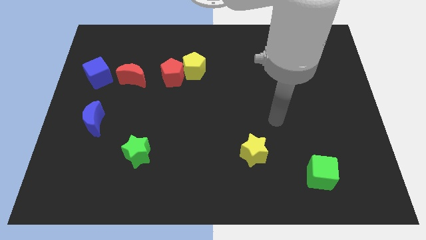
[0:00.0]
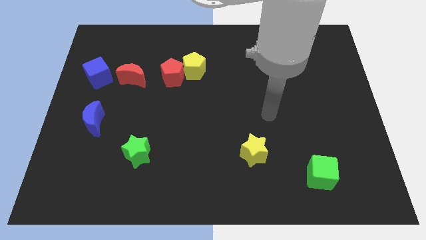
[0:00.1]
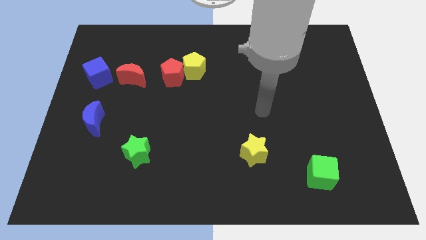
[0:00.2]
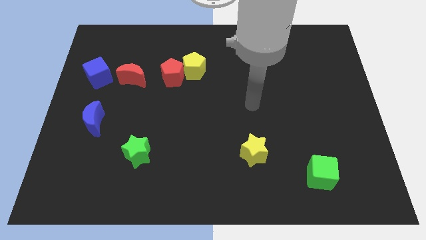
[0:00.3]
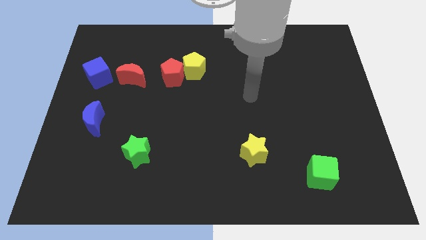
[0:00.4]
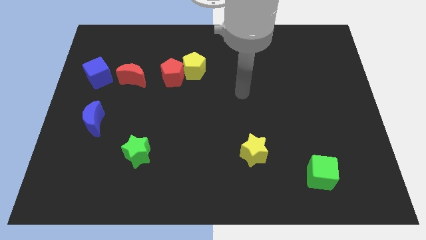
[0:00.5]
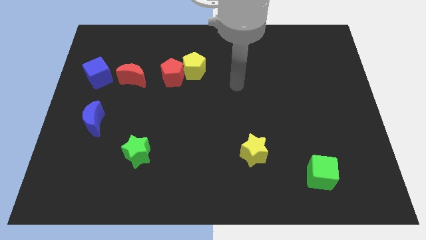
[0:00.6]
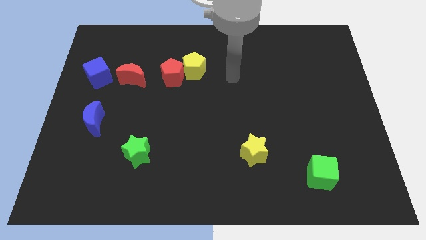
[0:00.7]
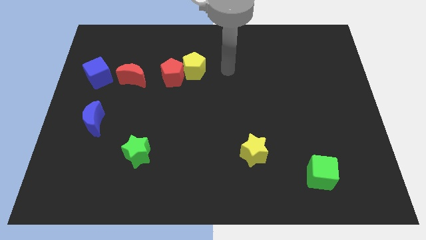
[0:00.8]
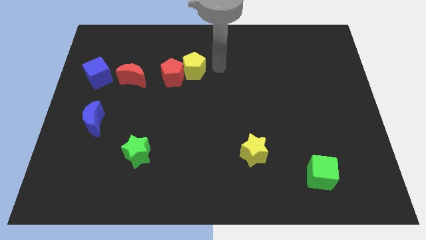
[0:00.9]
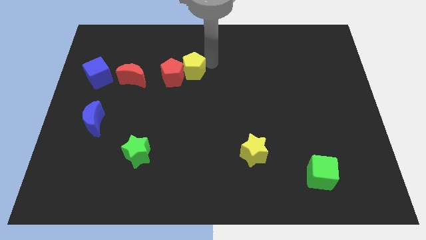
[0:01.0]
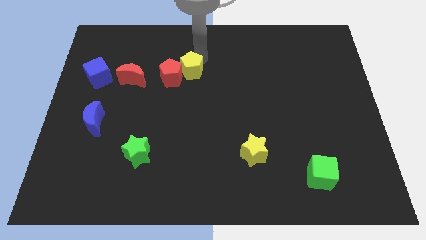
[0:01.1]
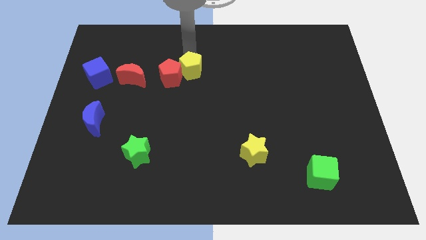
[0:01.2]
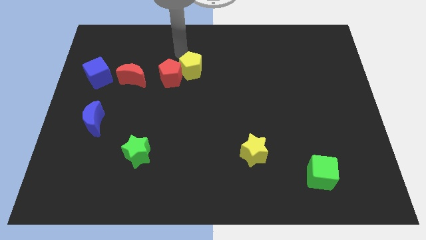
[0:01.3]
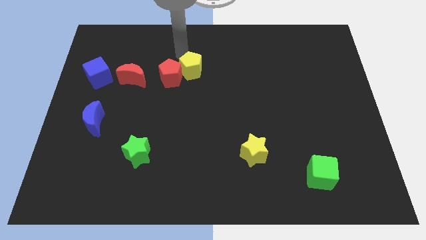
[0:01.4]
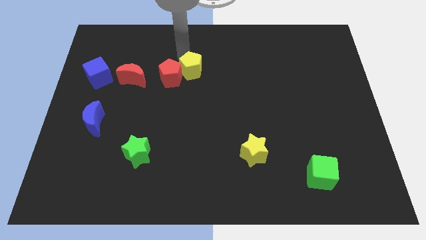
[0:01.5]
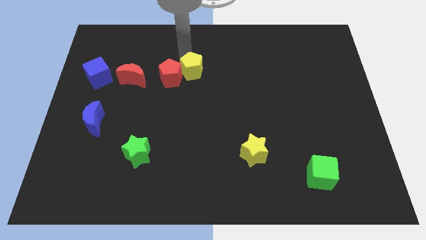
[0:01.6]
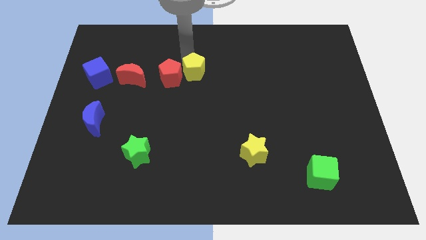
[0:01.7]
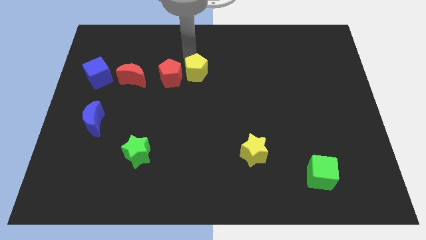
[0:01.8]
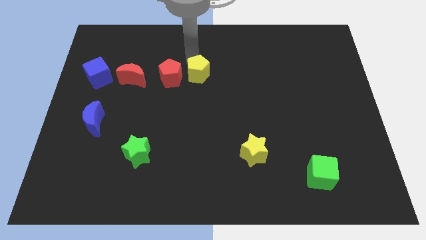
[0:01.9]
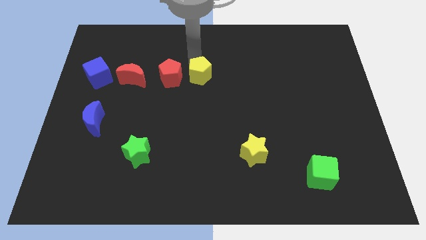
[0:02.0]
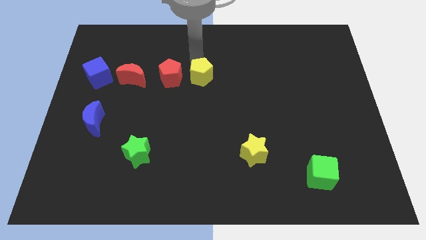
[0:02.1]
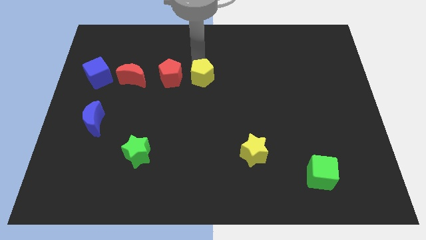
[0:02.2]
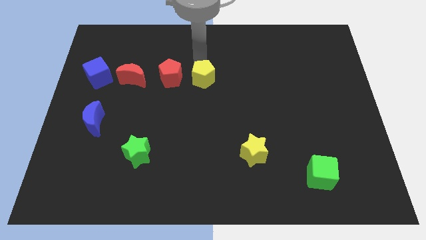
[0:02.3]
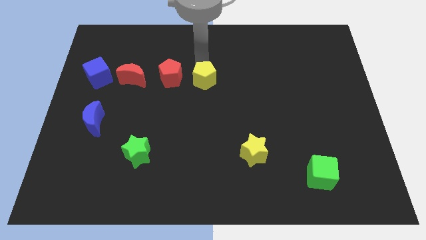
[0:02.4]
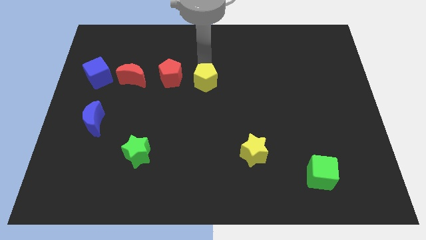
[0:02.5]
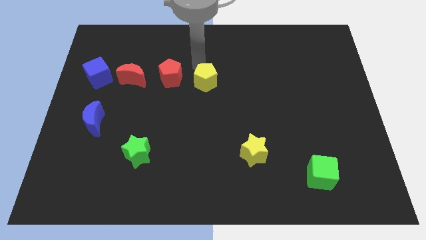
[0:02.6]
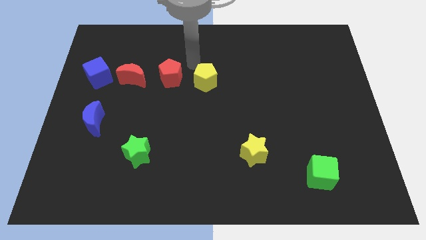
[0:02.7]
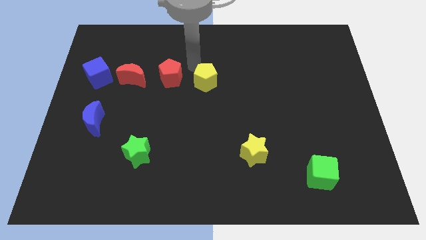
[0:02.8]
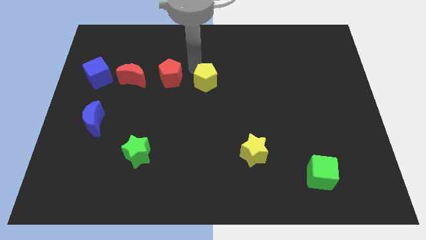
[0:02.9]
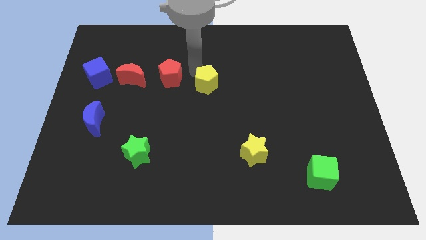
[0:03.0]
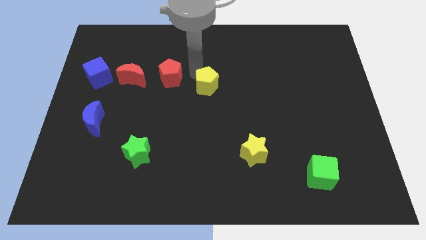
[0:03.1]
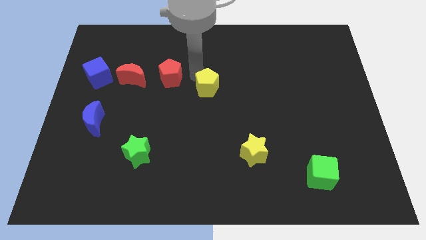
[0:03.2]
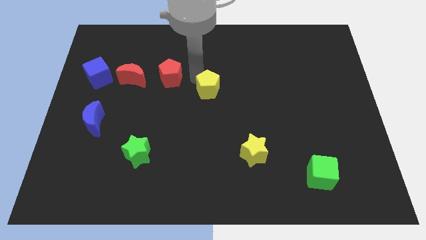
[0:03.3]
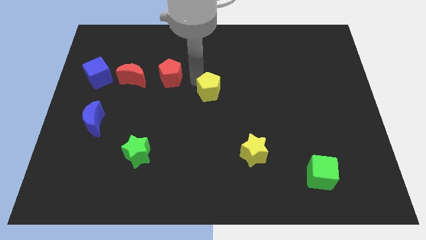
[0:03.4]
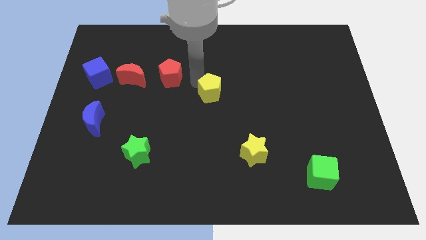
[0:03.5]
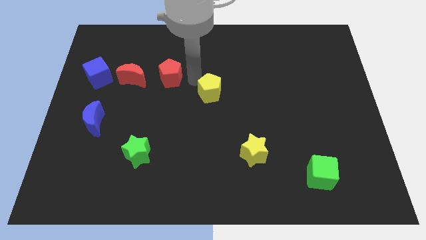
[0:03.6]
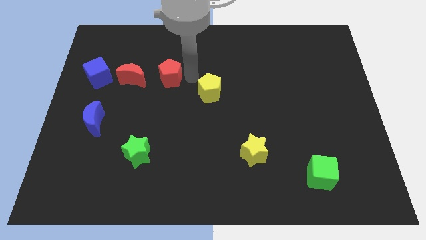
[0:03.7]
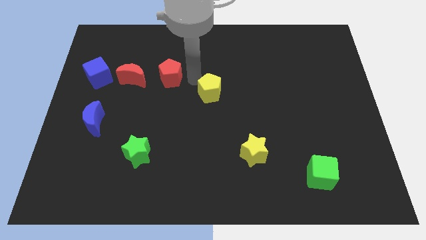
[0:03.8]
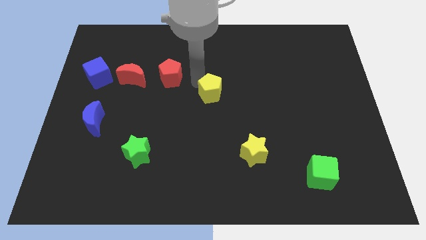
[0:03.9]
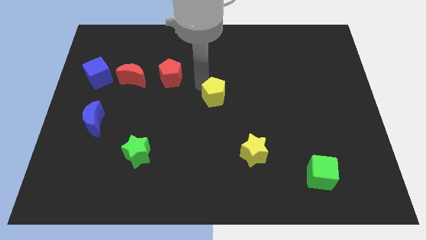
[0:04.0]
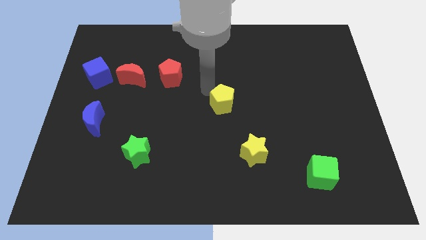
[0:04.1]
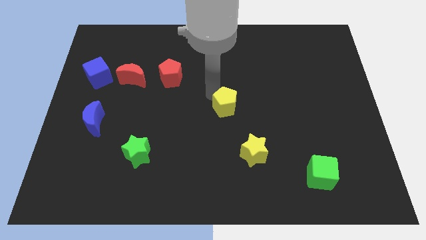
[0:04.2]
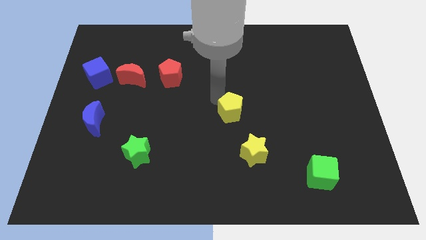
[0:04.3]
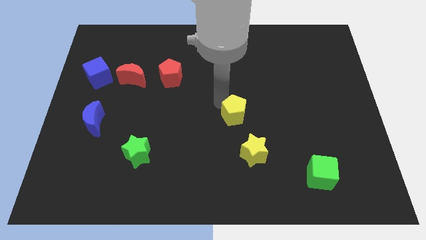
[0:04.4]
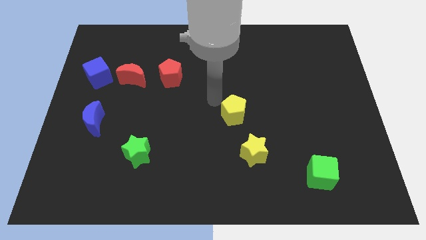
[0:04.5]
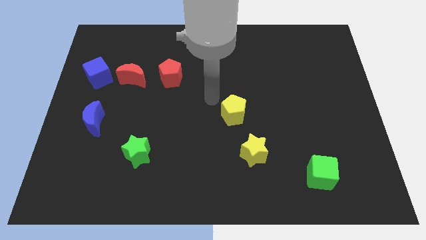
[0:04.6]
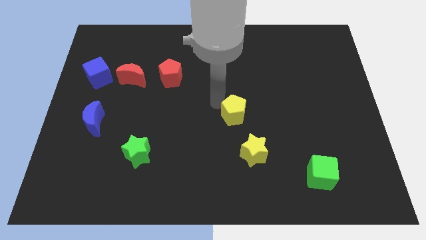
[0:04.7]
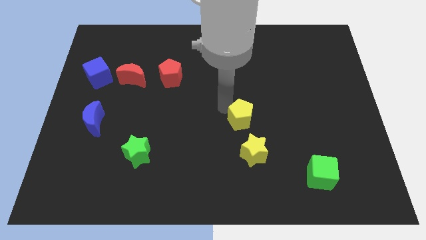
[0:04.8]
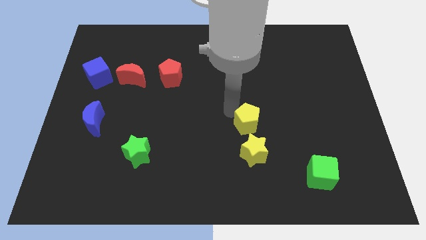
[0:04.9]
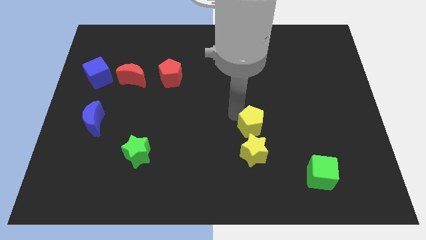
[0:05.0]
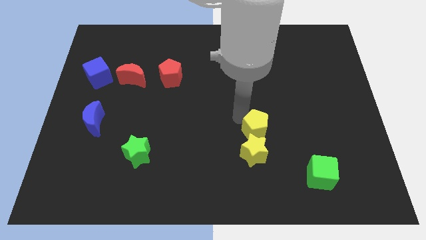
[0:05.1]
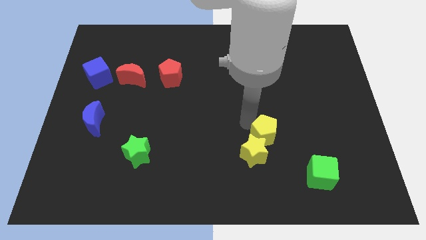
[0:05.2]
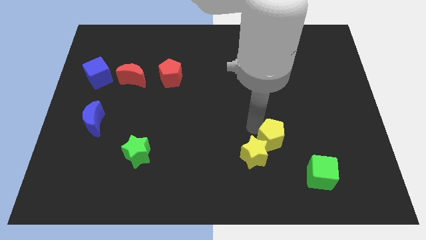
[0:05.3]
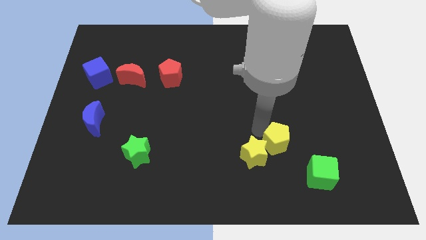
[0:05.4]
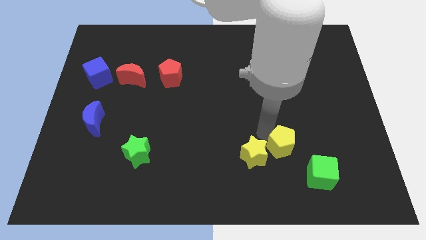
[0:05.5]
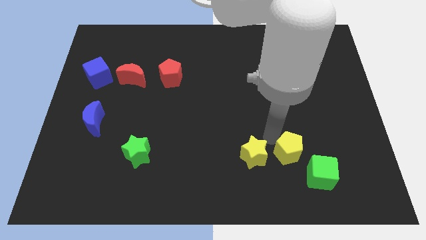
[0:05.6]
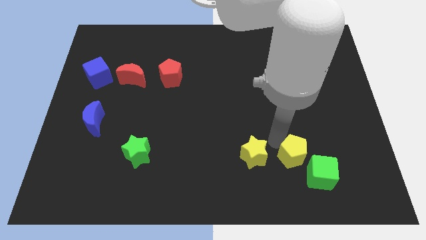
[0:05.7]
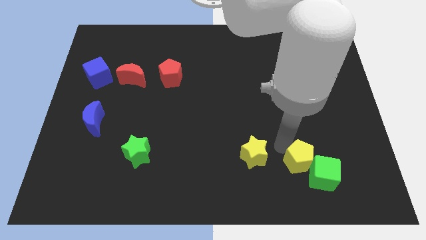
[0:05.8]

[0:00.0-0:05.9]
put the yellow pentagon towards the green cube

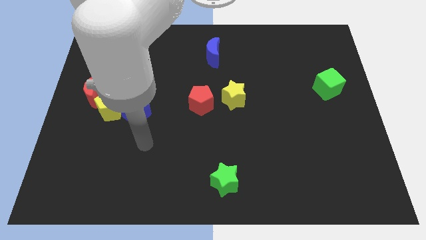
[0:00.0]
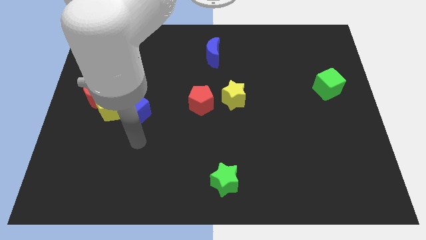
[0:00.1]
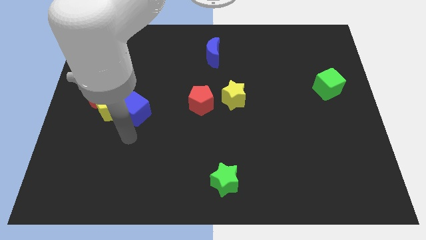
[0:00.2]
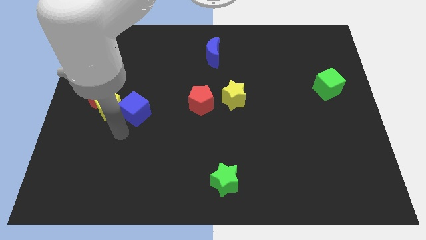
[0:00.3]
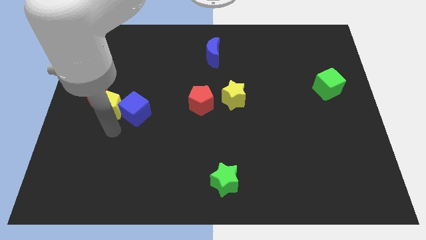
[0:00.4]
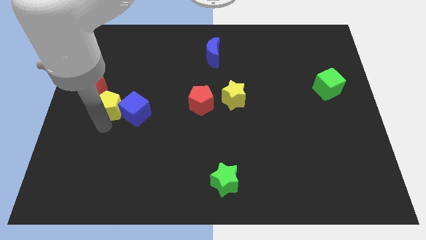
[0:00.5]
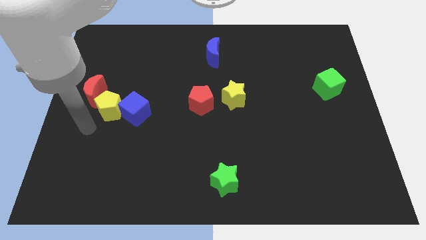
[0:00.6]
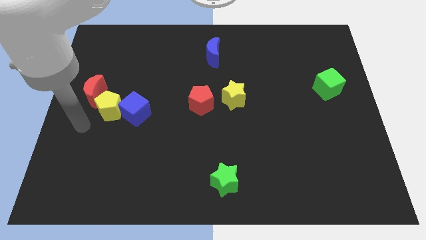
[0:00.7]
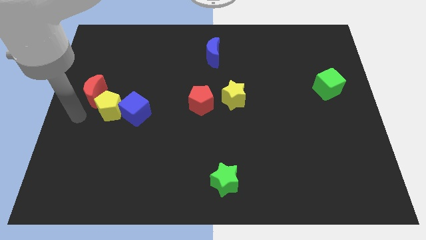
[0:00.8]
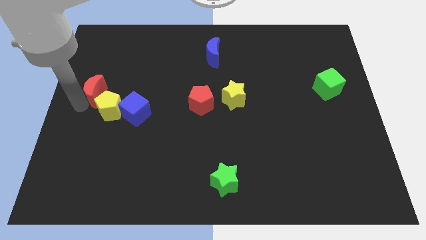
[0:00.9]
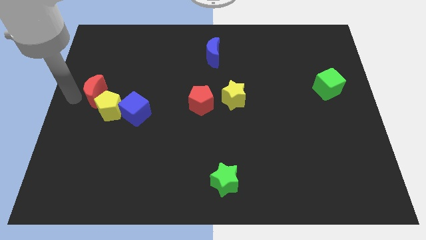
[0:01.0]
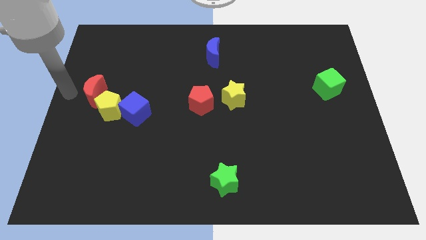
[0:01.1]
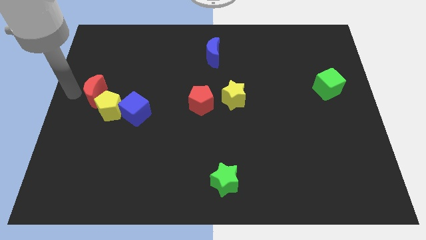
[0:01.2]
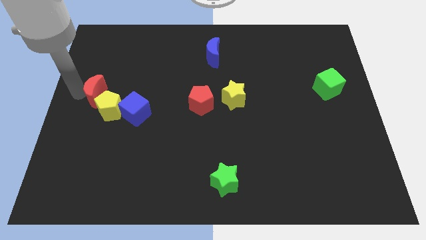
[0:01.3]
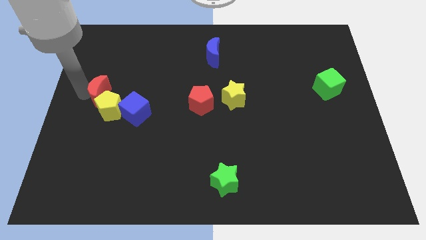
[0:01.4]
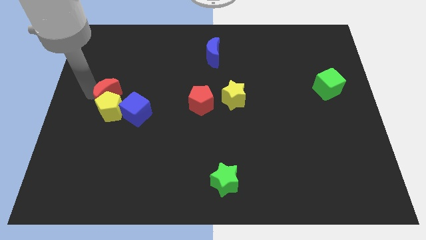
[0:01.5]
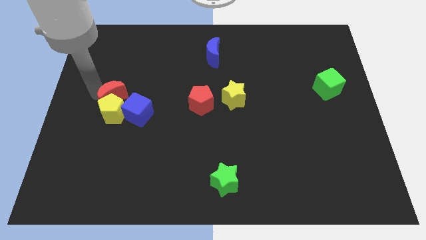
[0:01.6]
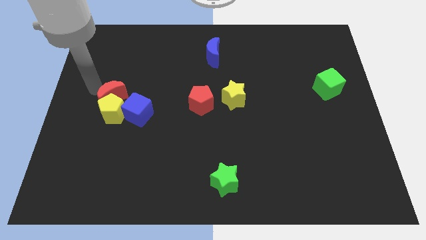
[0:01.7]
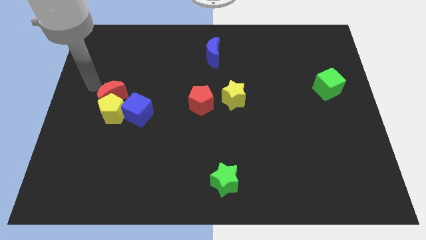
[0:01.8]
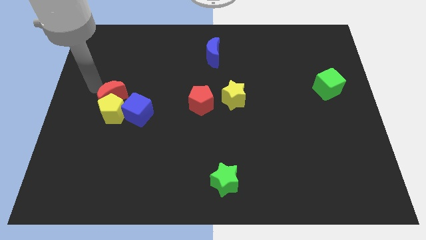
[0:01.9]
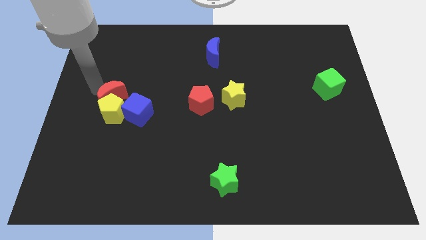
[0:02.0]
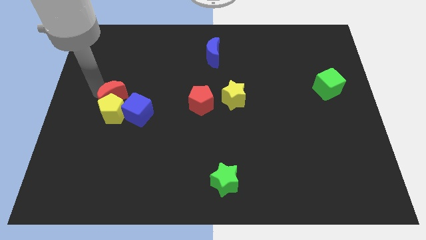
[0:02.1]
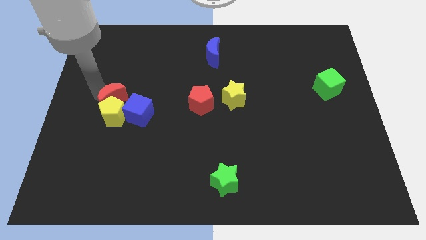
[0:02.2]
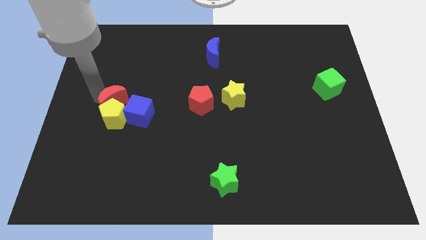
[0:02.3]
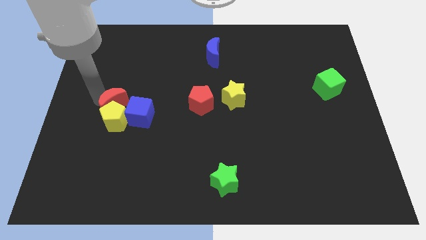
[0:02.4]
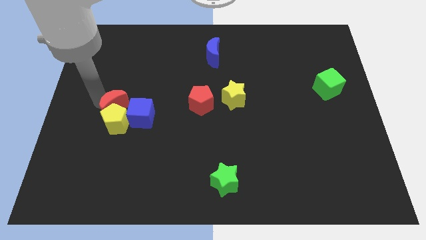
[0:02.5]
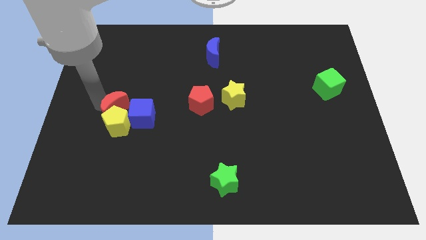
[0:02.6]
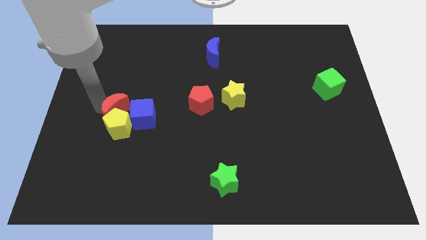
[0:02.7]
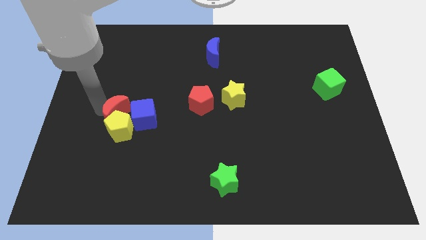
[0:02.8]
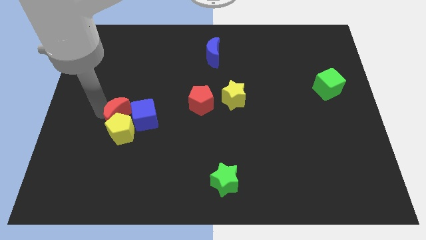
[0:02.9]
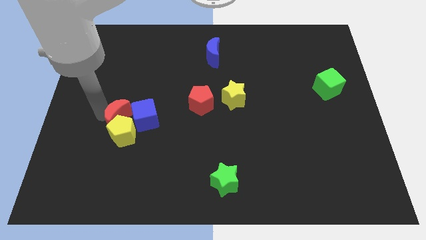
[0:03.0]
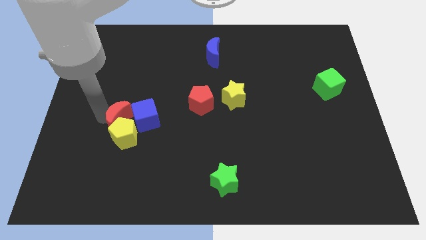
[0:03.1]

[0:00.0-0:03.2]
put the red moon towards the blue cube
